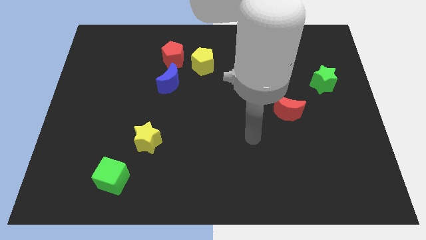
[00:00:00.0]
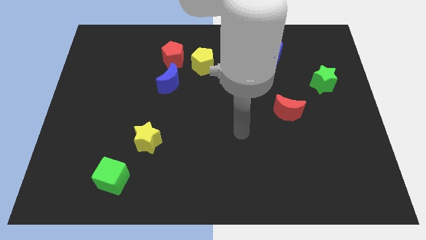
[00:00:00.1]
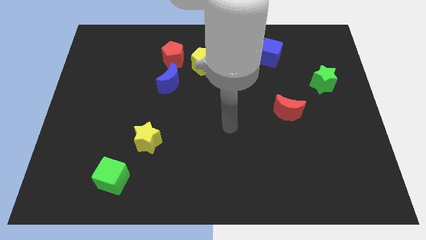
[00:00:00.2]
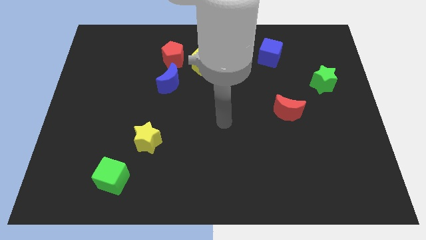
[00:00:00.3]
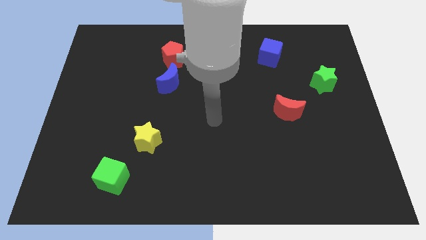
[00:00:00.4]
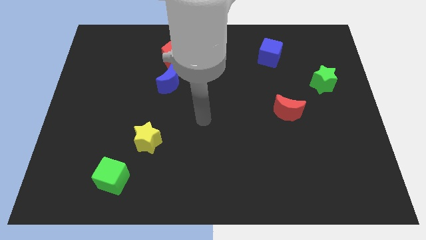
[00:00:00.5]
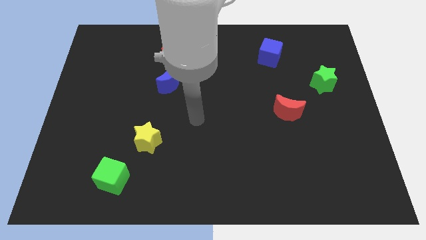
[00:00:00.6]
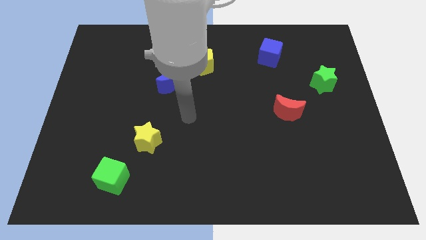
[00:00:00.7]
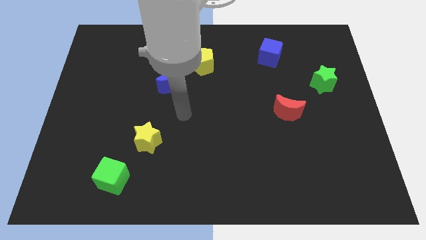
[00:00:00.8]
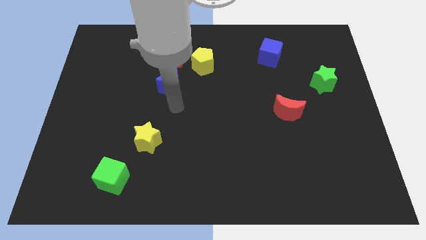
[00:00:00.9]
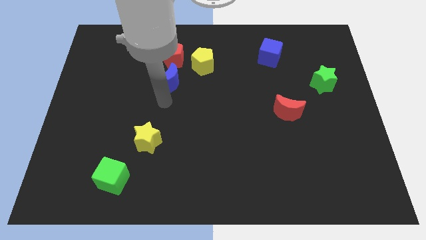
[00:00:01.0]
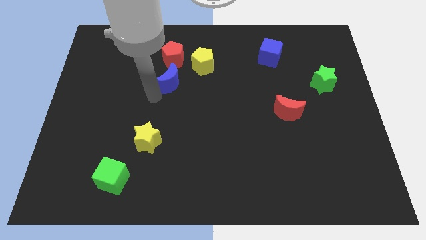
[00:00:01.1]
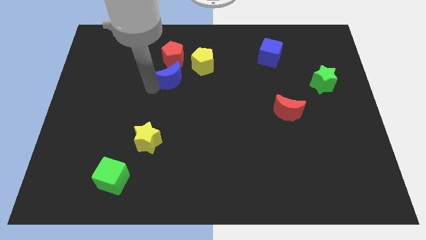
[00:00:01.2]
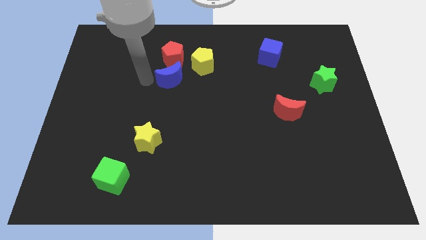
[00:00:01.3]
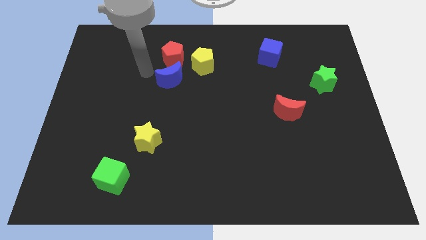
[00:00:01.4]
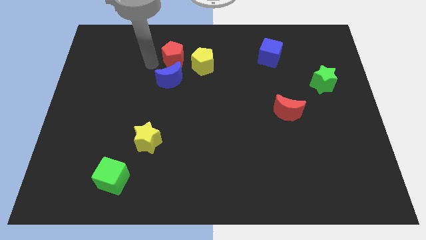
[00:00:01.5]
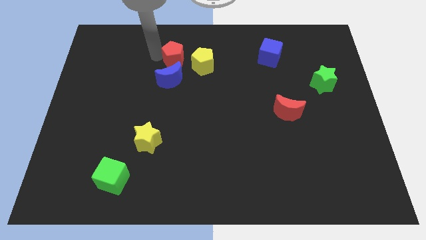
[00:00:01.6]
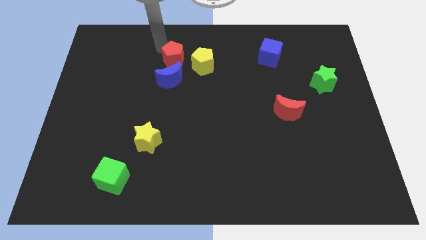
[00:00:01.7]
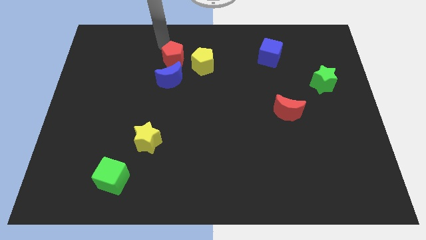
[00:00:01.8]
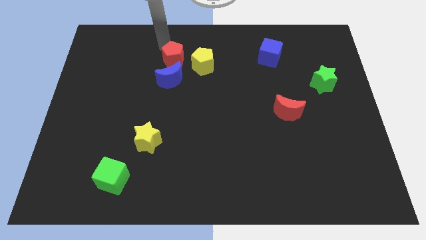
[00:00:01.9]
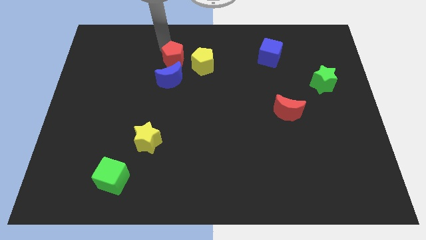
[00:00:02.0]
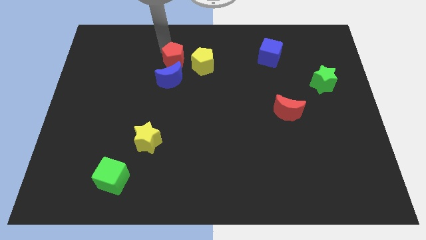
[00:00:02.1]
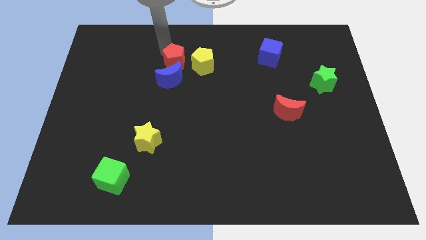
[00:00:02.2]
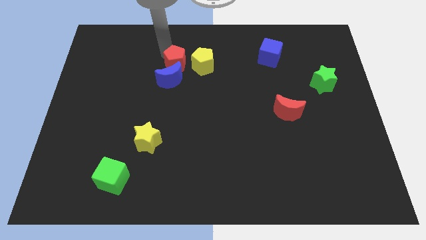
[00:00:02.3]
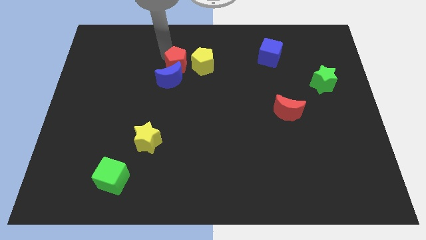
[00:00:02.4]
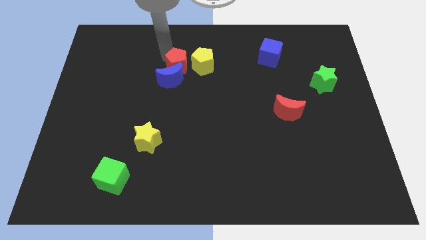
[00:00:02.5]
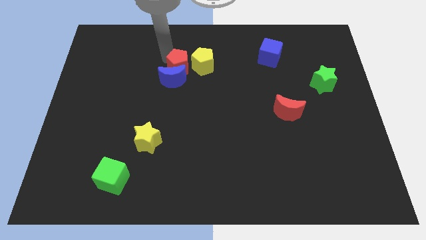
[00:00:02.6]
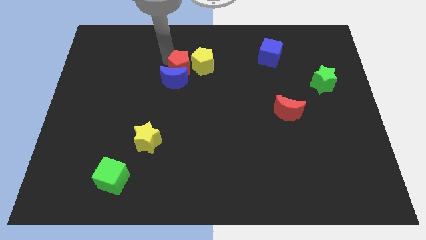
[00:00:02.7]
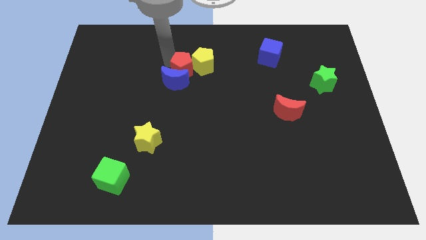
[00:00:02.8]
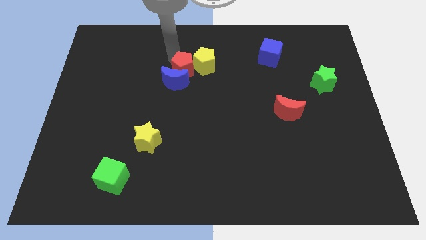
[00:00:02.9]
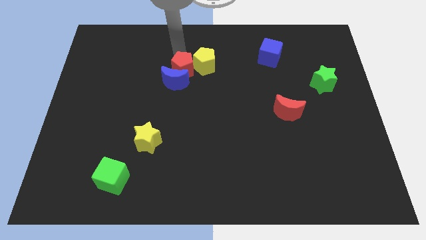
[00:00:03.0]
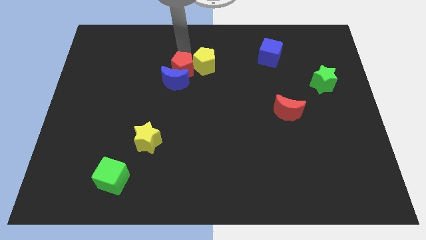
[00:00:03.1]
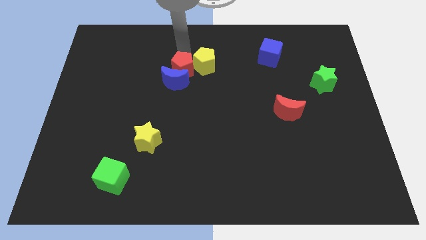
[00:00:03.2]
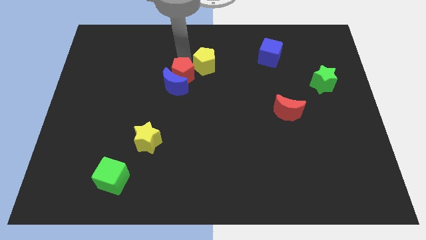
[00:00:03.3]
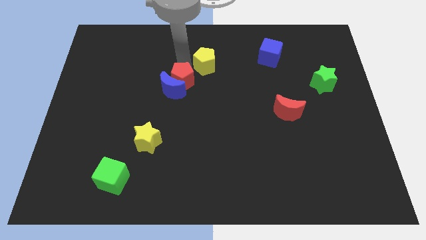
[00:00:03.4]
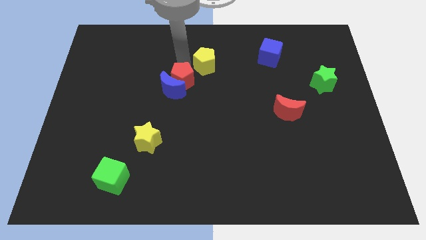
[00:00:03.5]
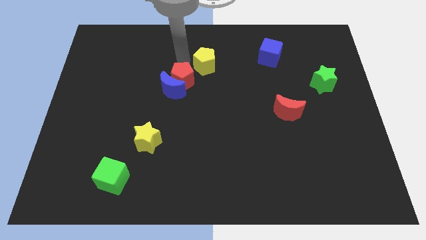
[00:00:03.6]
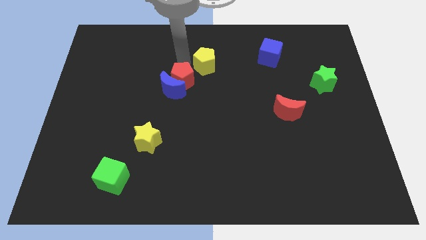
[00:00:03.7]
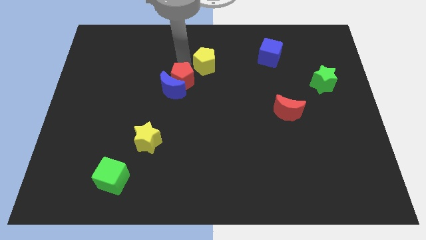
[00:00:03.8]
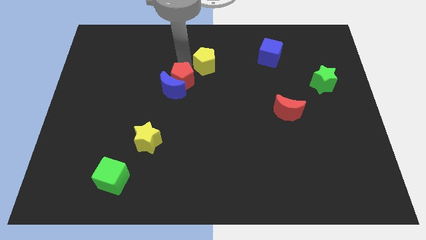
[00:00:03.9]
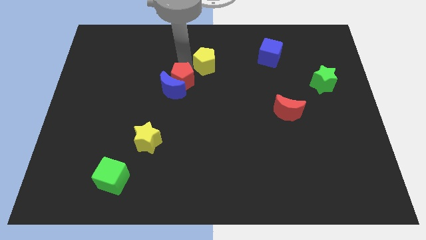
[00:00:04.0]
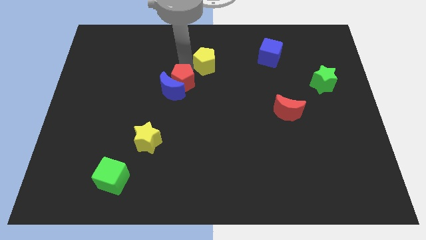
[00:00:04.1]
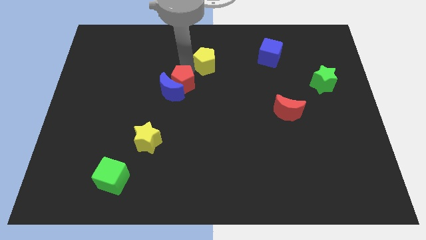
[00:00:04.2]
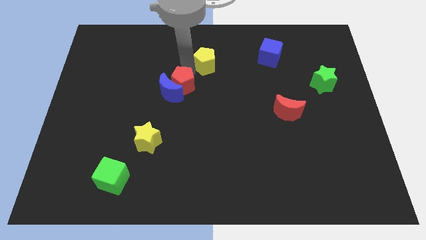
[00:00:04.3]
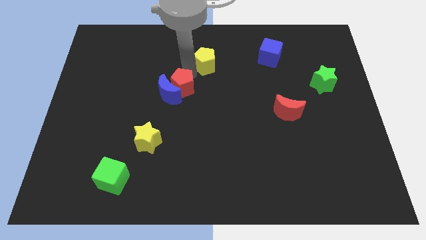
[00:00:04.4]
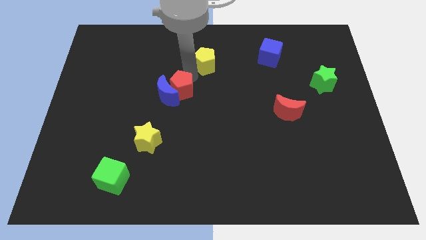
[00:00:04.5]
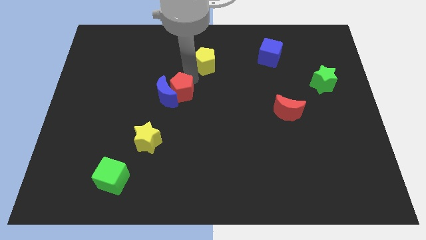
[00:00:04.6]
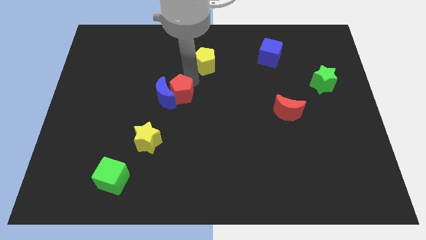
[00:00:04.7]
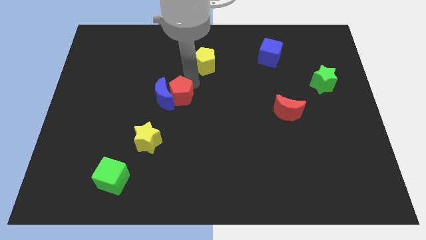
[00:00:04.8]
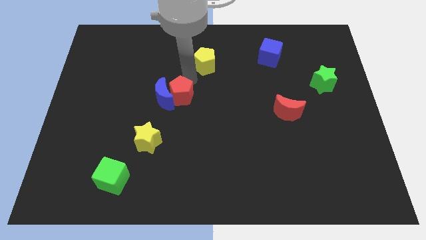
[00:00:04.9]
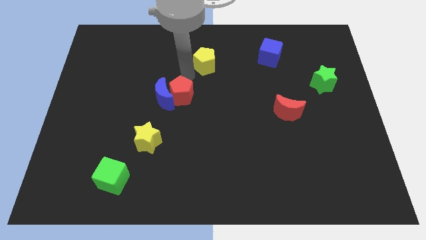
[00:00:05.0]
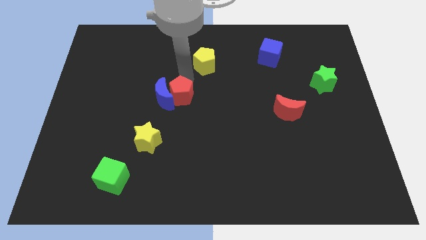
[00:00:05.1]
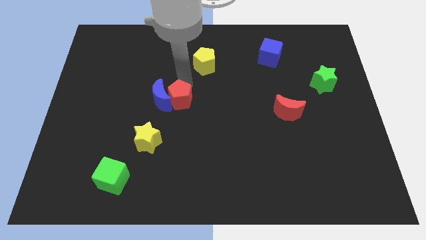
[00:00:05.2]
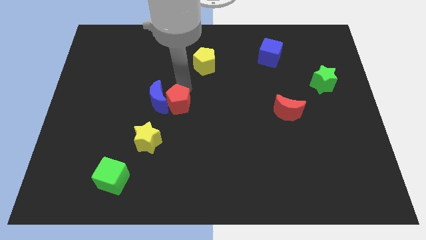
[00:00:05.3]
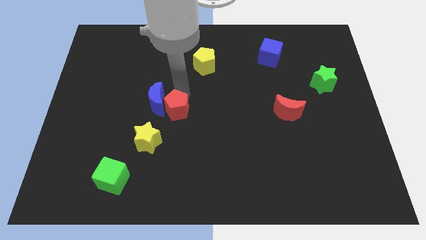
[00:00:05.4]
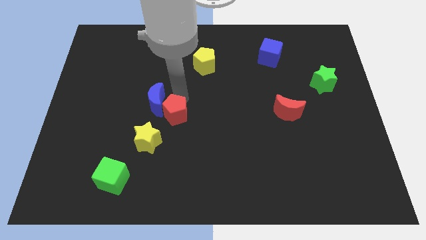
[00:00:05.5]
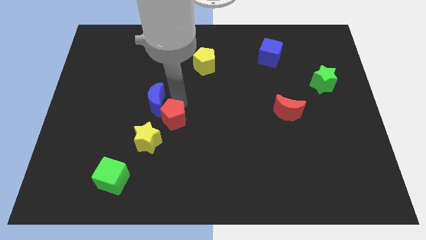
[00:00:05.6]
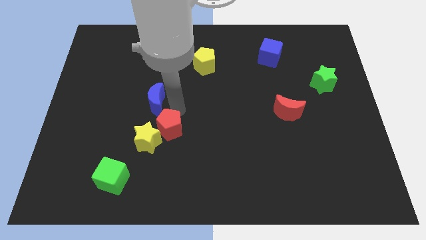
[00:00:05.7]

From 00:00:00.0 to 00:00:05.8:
slide the red pentagon down

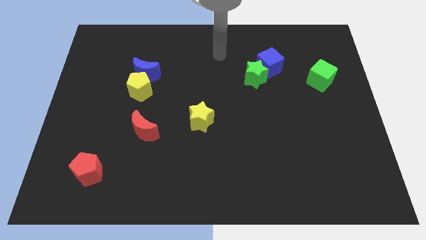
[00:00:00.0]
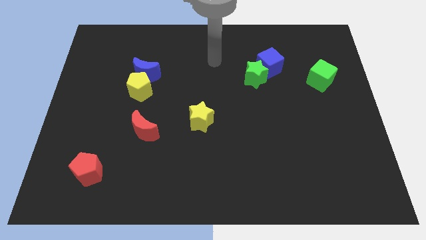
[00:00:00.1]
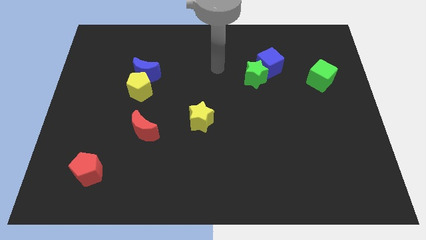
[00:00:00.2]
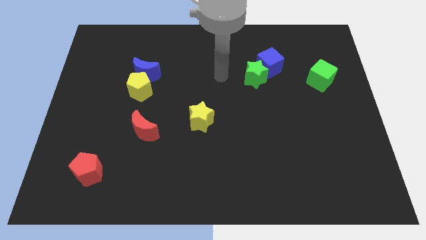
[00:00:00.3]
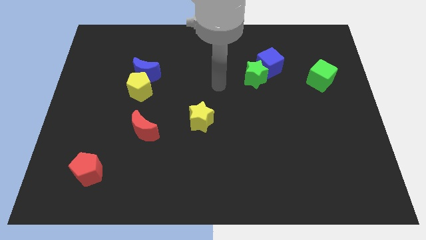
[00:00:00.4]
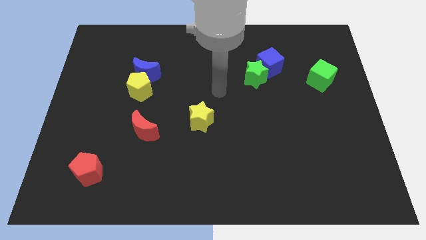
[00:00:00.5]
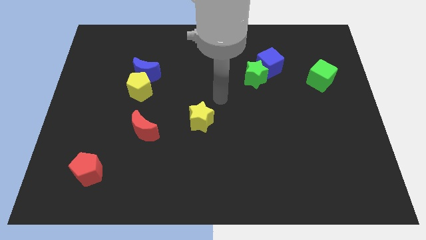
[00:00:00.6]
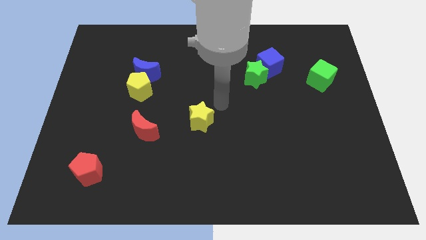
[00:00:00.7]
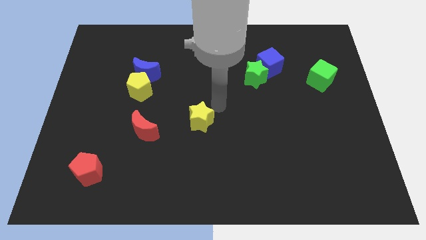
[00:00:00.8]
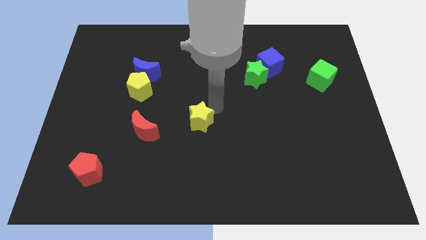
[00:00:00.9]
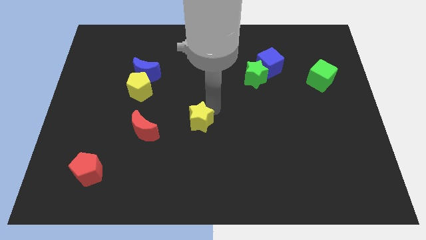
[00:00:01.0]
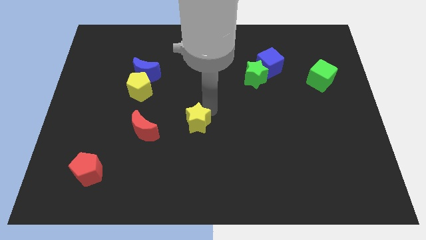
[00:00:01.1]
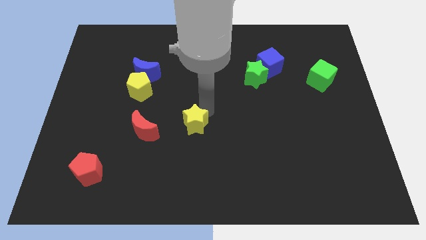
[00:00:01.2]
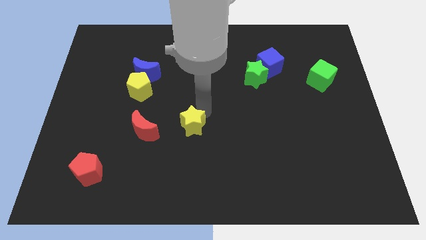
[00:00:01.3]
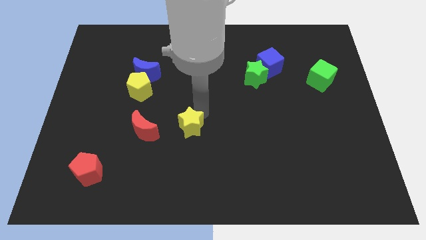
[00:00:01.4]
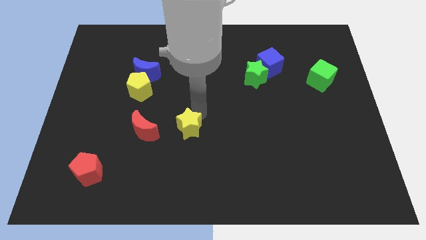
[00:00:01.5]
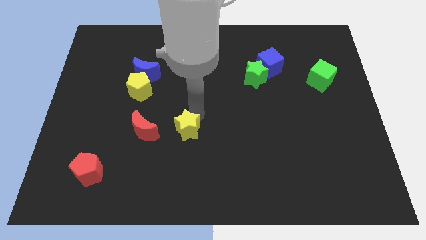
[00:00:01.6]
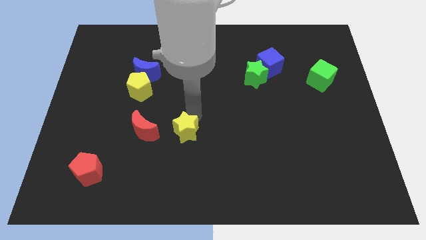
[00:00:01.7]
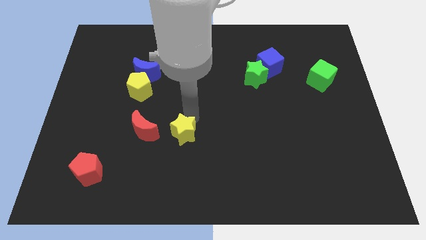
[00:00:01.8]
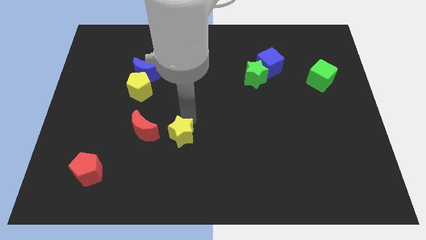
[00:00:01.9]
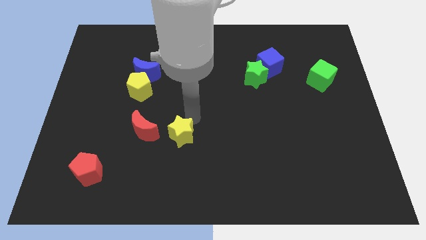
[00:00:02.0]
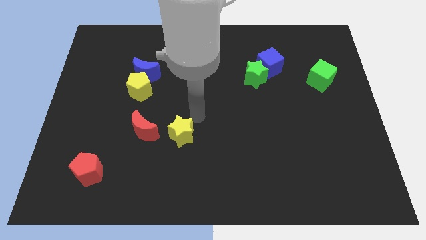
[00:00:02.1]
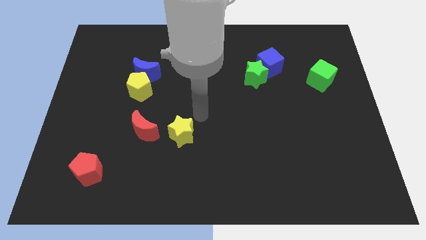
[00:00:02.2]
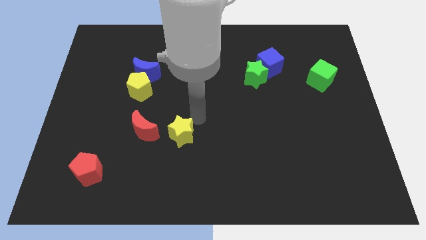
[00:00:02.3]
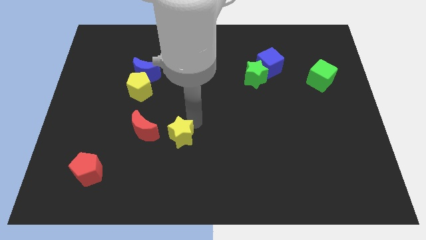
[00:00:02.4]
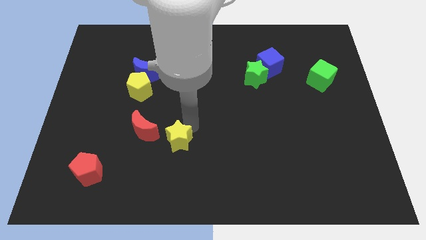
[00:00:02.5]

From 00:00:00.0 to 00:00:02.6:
push the yellow star downwards and then left a little
